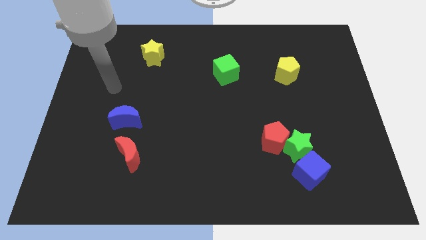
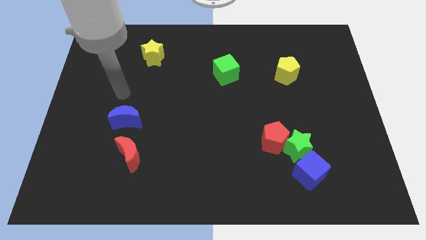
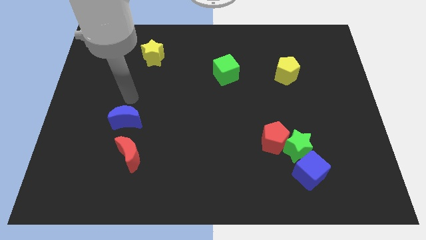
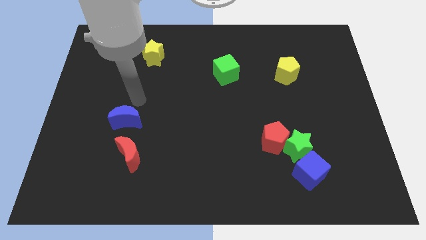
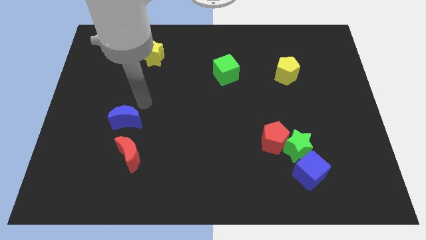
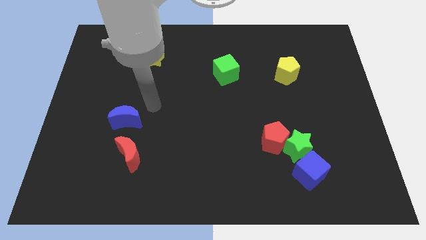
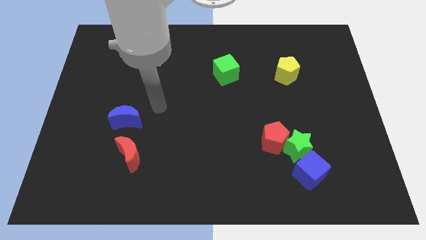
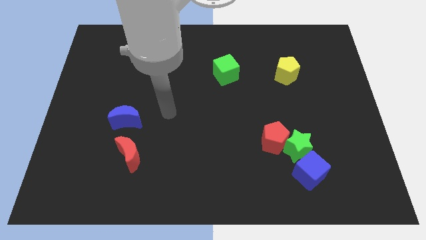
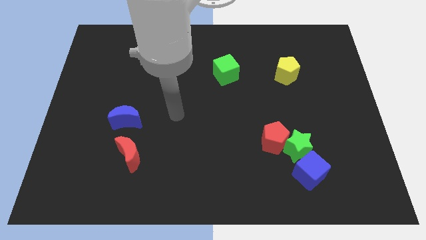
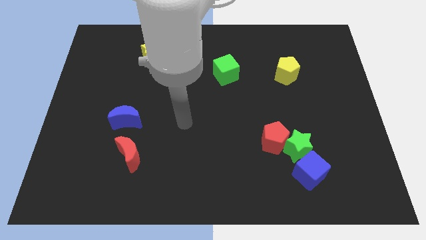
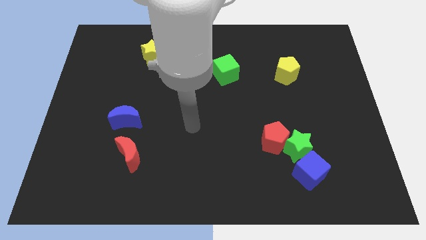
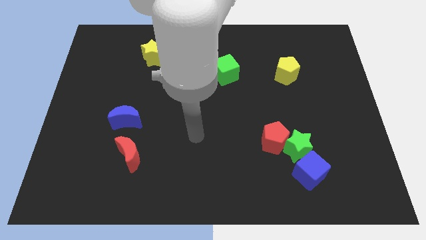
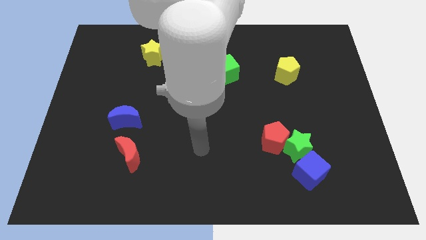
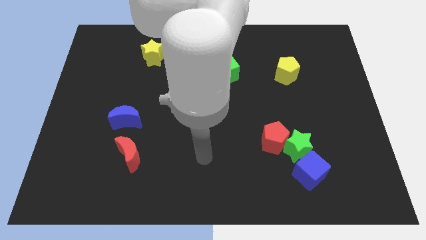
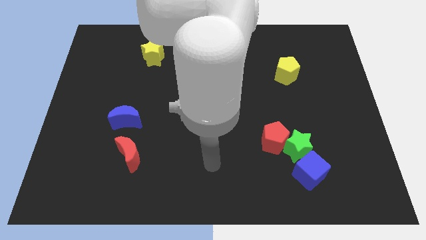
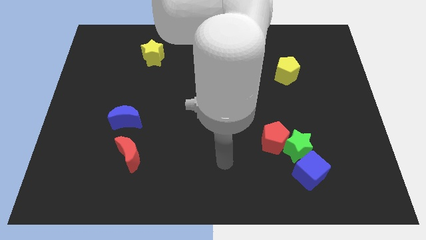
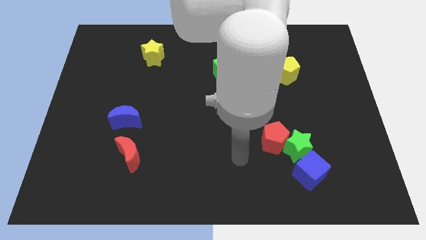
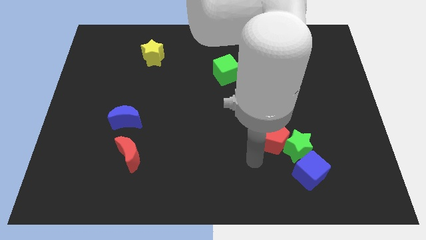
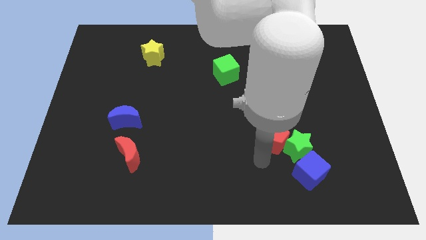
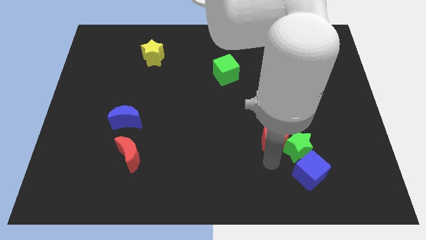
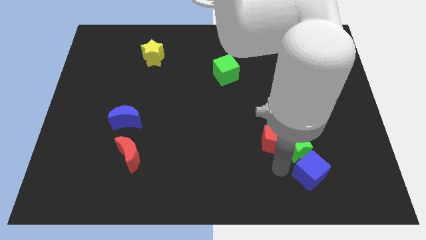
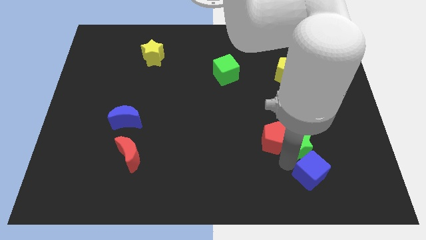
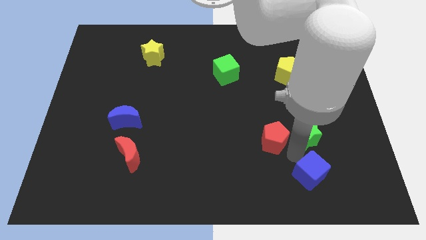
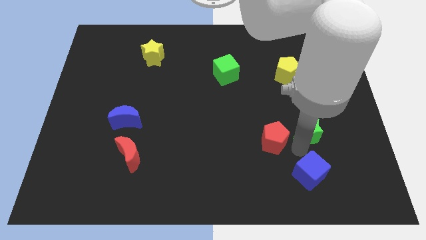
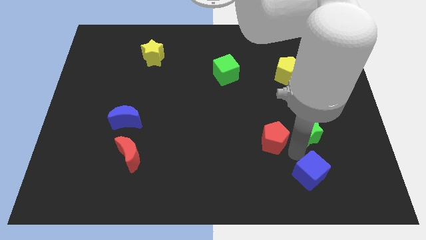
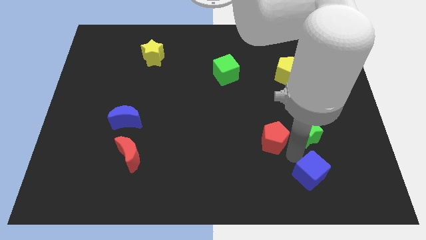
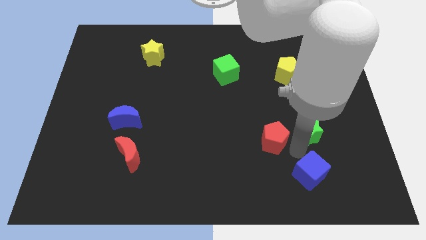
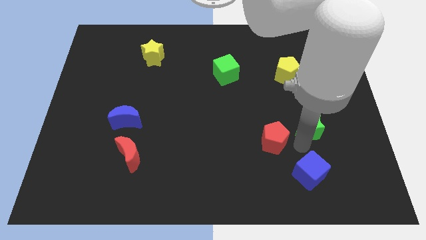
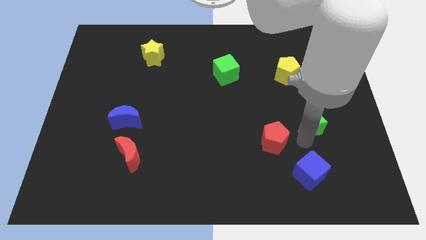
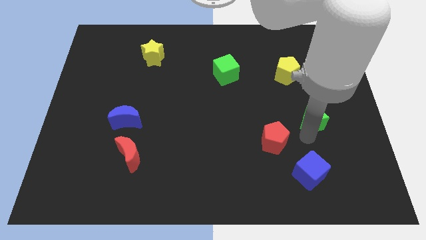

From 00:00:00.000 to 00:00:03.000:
pull the green star apart from the red pentagon and blue cube

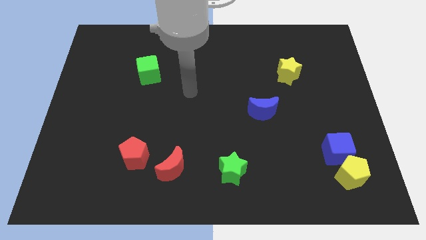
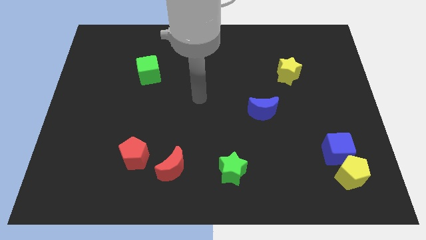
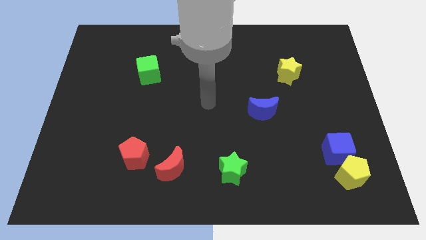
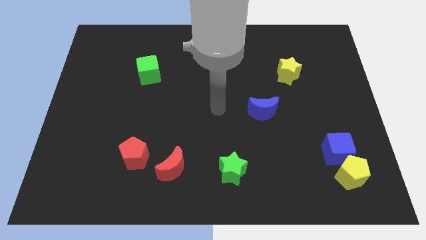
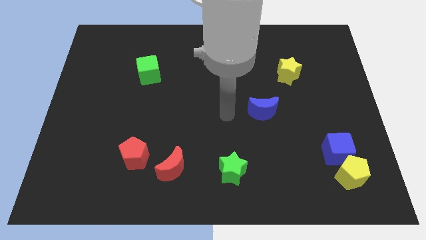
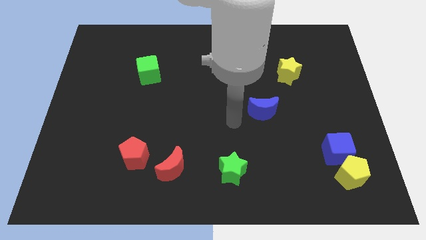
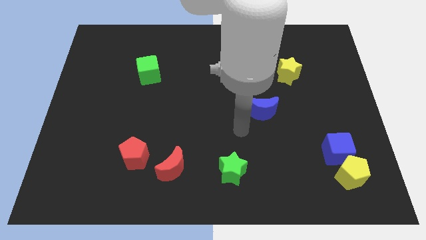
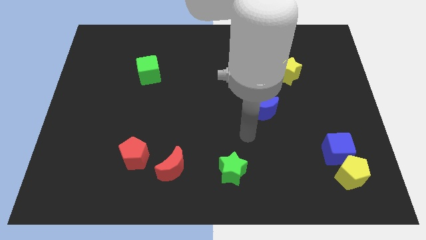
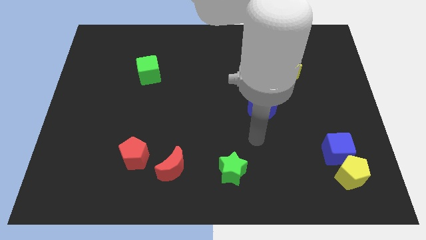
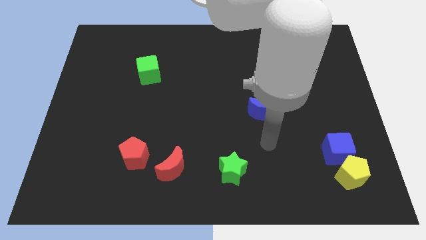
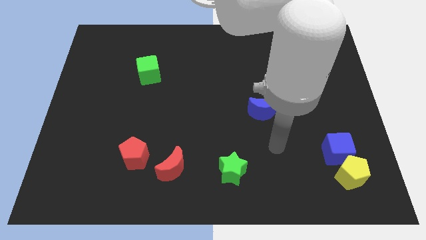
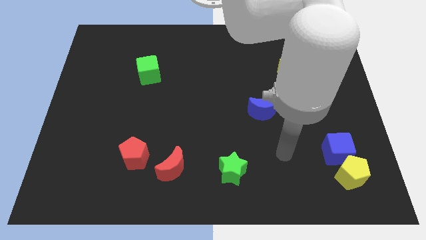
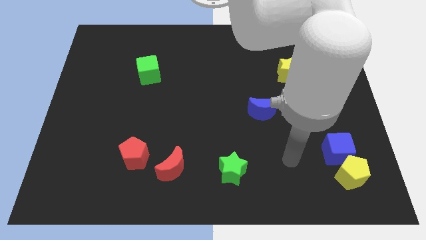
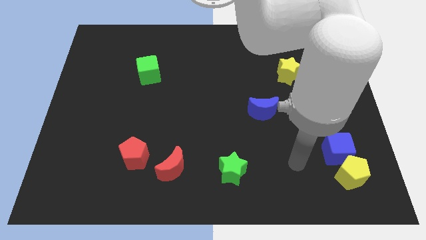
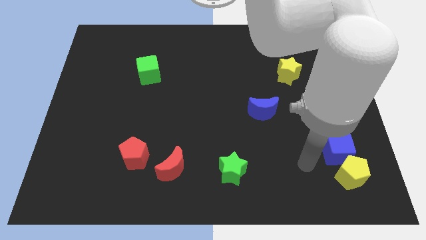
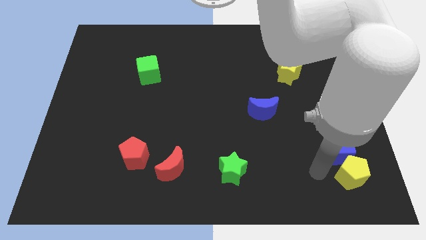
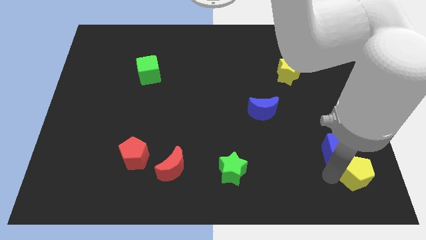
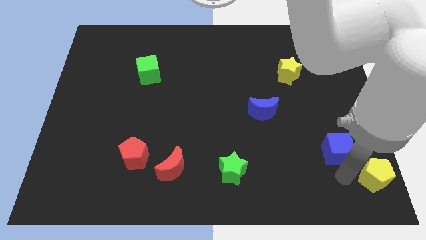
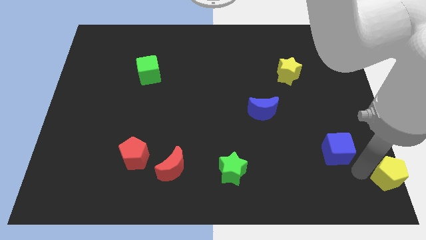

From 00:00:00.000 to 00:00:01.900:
pull the blue cube apart from the yellow pentagon

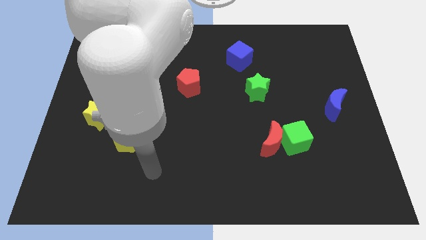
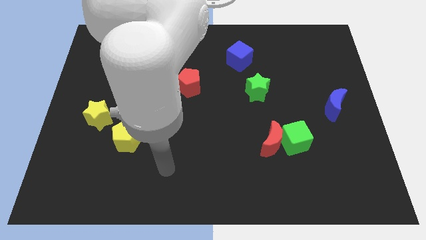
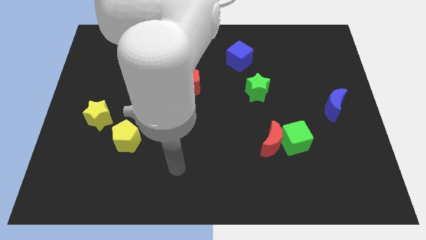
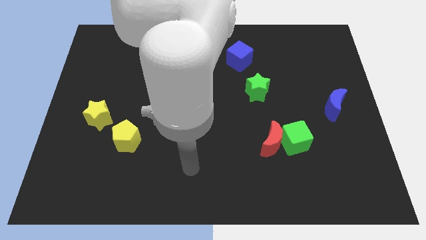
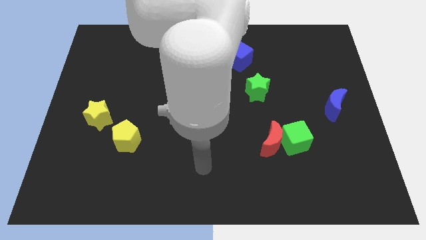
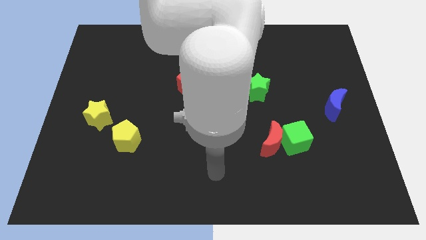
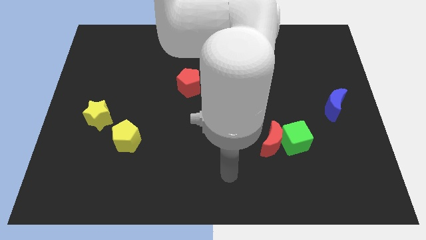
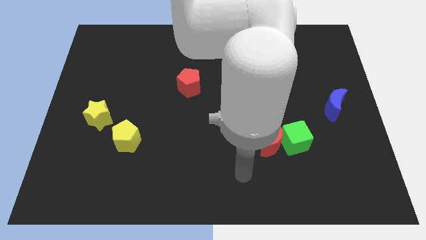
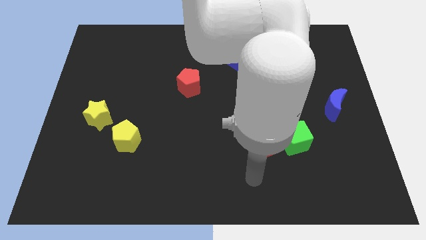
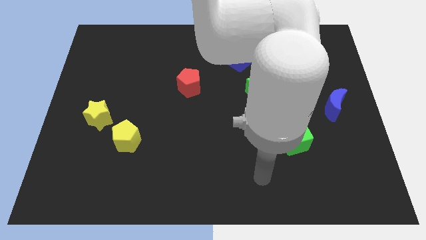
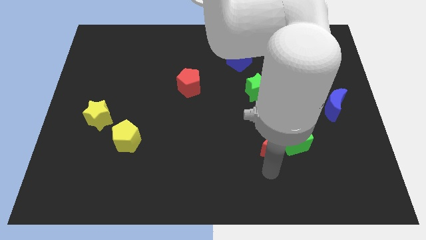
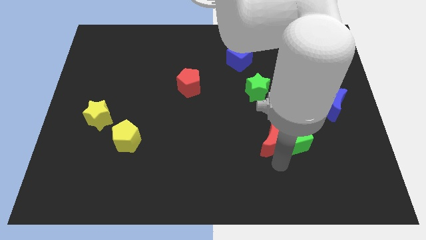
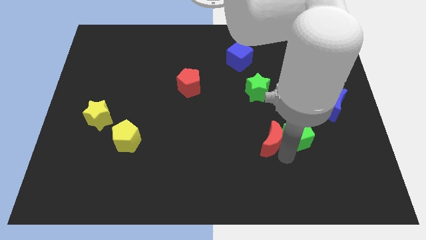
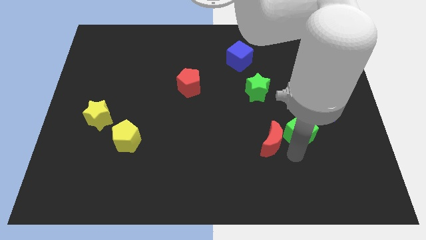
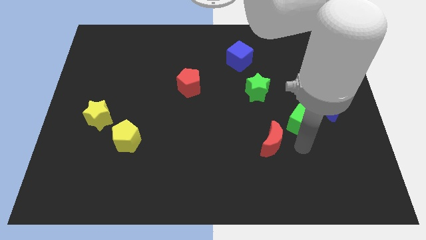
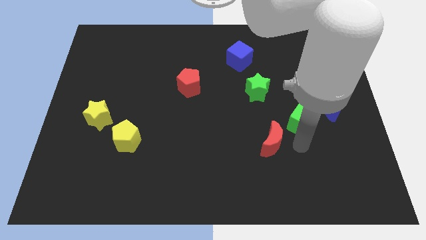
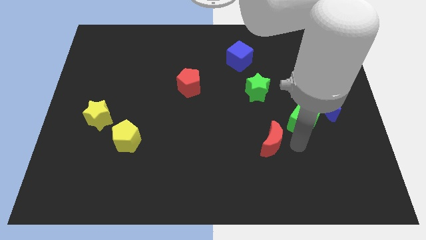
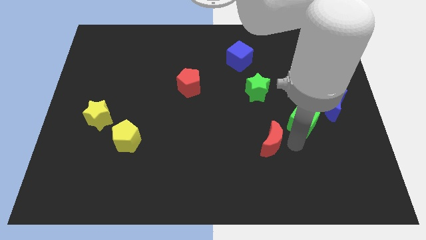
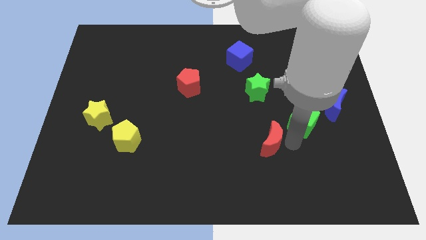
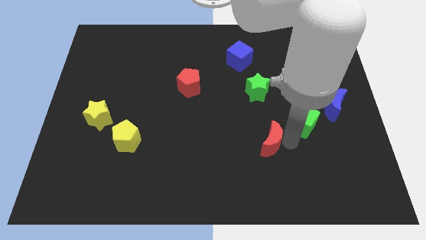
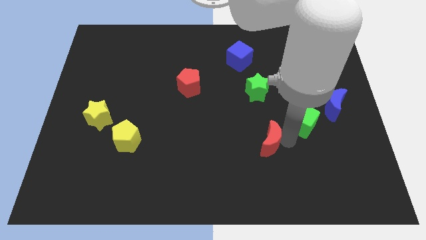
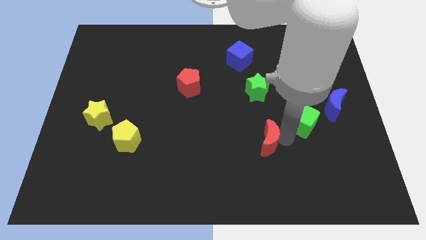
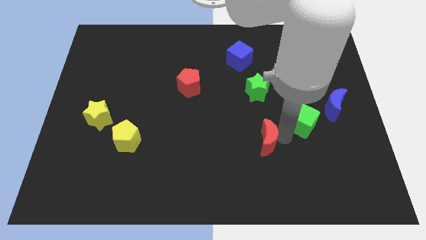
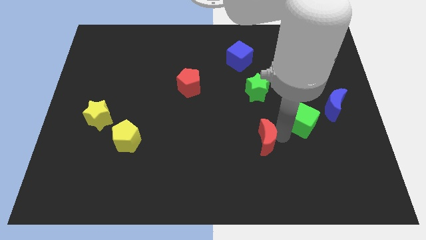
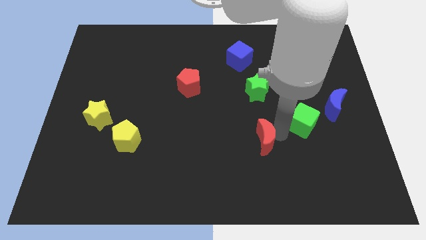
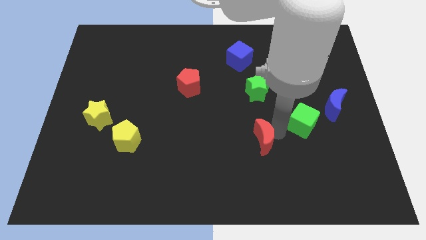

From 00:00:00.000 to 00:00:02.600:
separate the red moon from the green cube

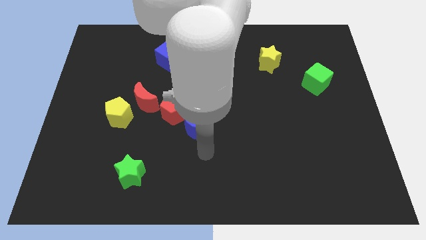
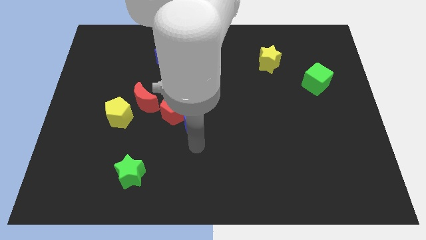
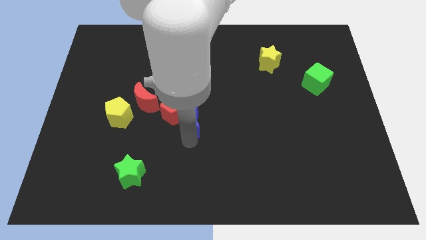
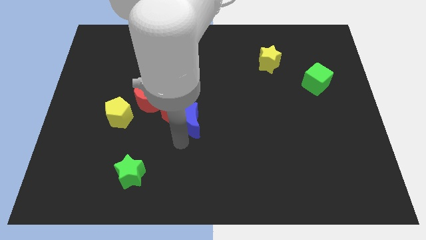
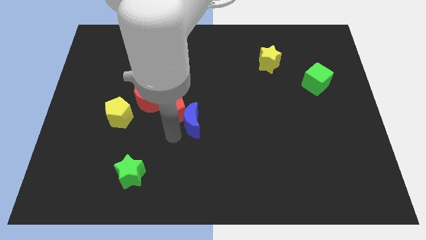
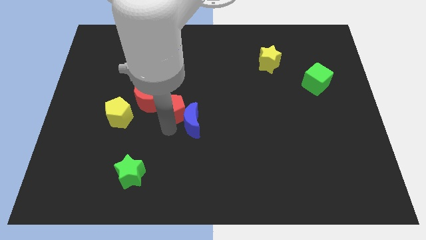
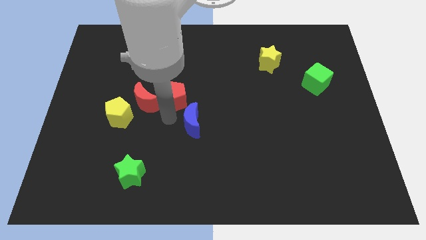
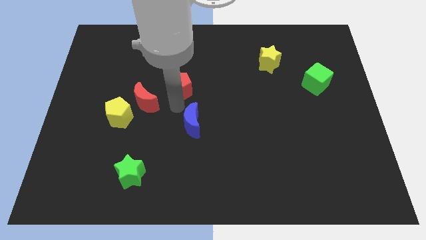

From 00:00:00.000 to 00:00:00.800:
pull the blue moon apart from the red pentagon

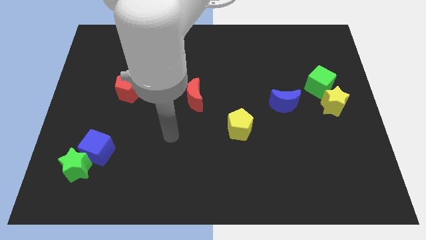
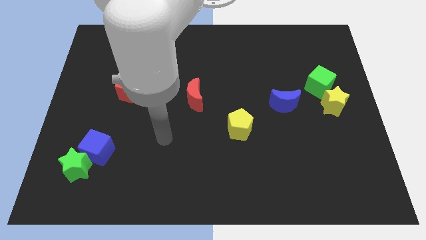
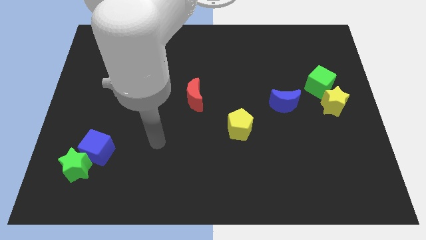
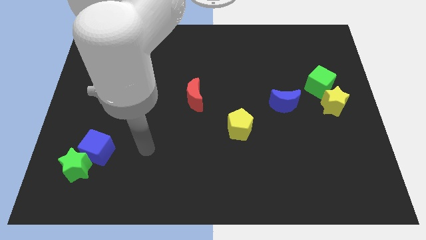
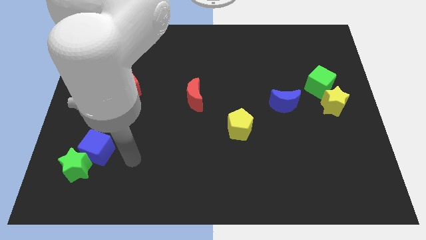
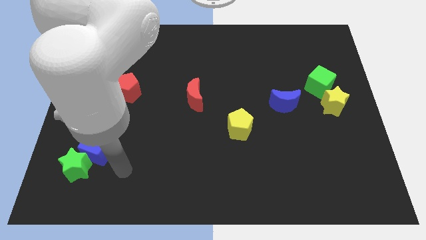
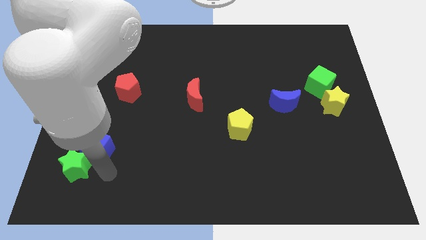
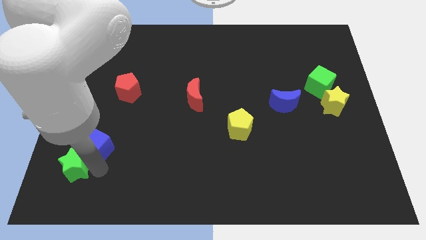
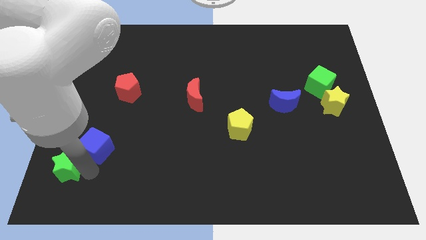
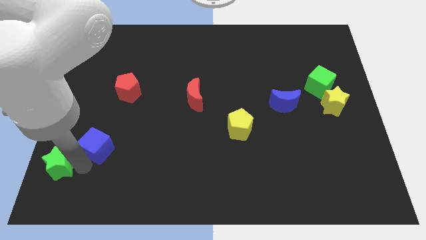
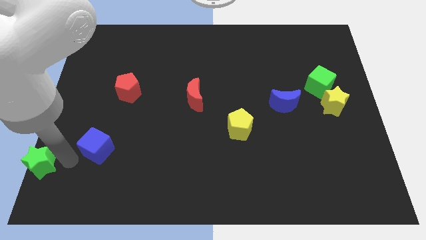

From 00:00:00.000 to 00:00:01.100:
pull the blue cube apart from the green star
